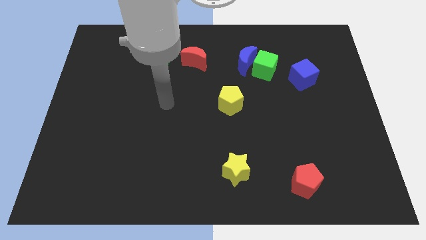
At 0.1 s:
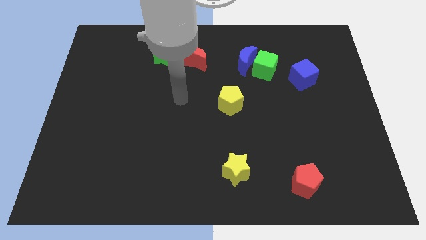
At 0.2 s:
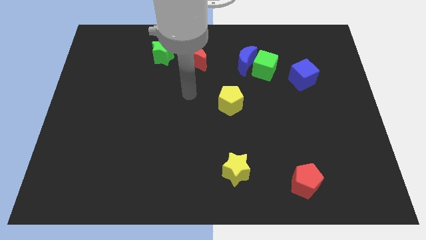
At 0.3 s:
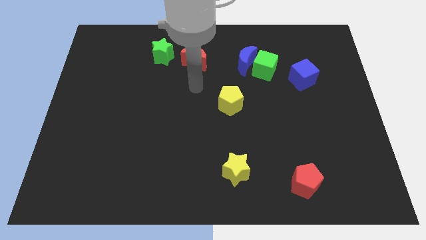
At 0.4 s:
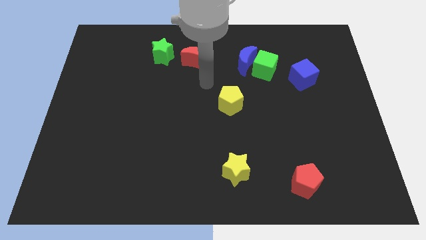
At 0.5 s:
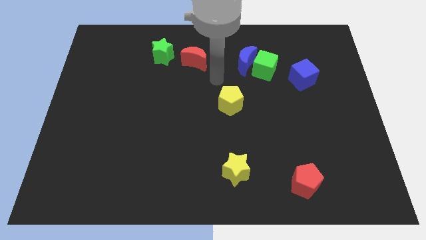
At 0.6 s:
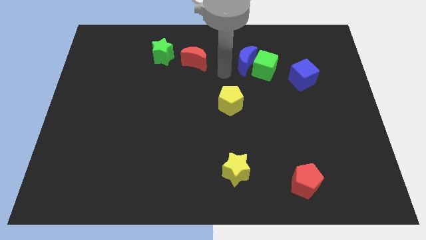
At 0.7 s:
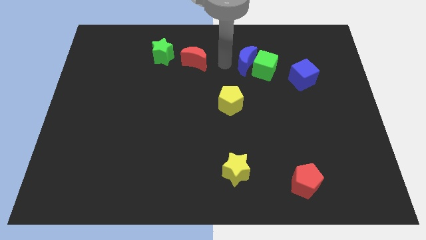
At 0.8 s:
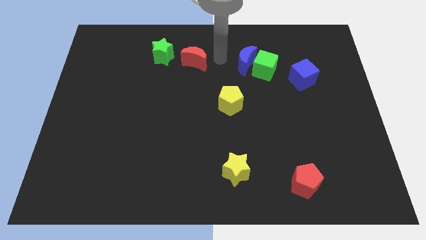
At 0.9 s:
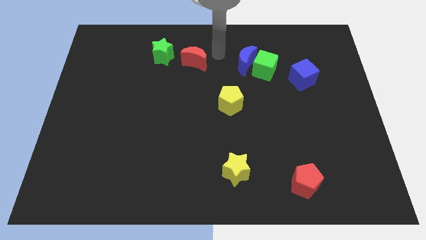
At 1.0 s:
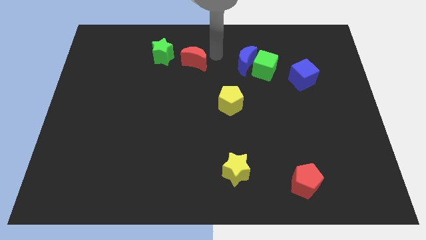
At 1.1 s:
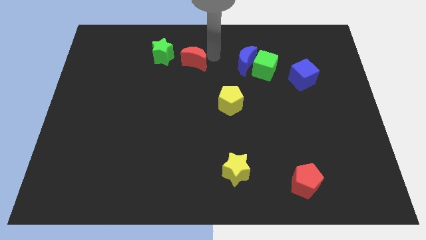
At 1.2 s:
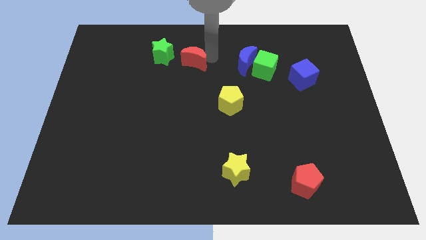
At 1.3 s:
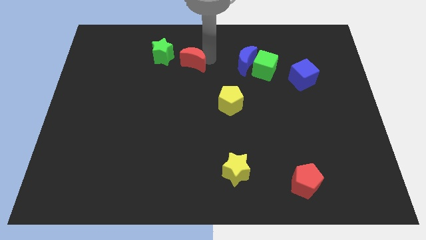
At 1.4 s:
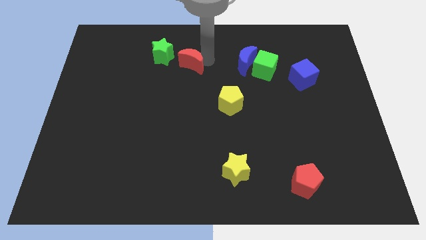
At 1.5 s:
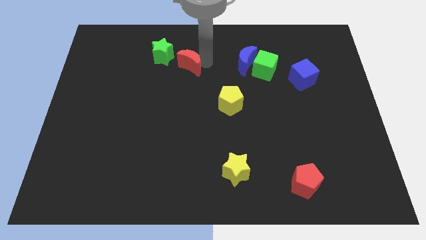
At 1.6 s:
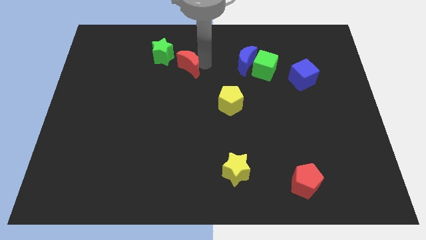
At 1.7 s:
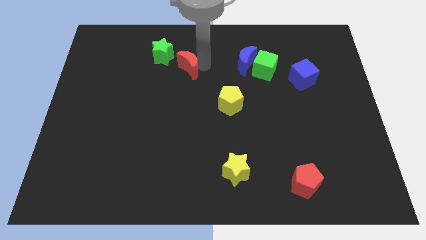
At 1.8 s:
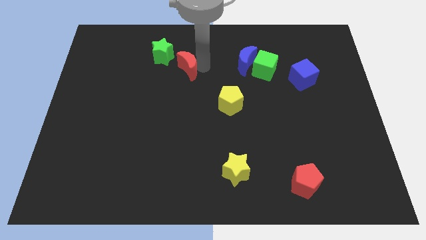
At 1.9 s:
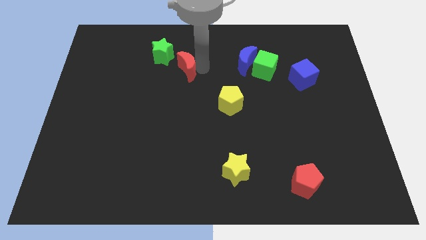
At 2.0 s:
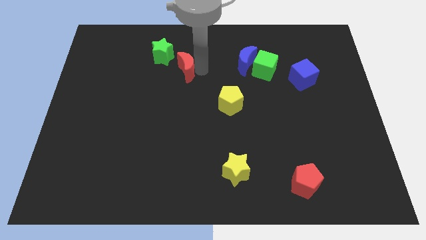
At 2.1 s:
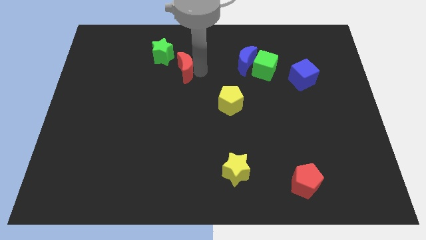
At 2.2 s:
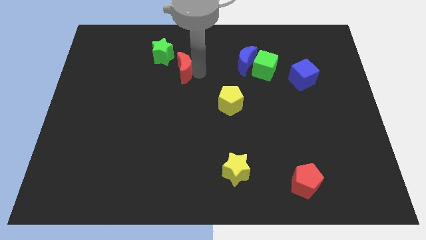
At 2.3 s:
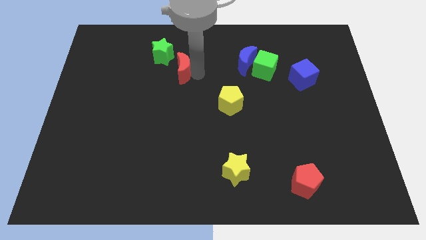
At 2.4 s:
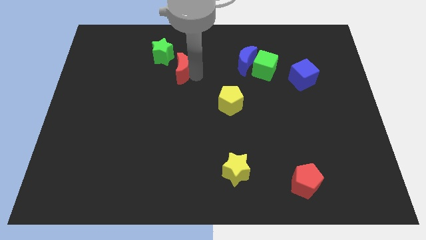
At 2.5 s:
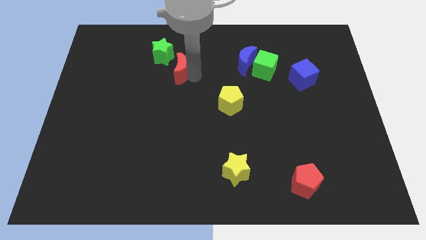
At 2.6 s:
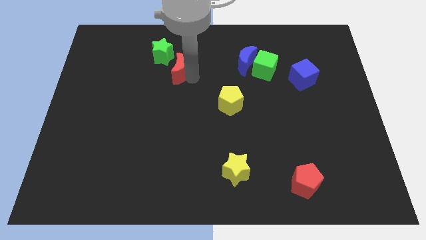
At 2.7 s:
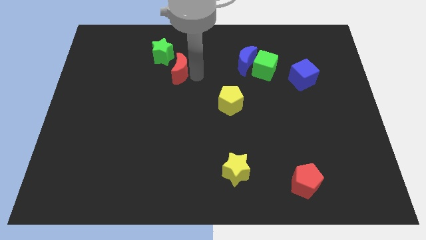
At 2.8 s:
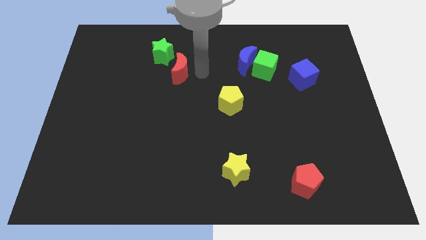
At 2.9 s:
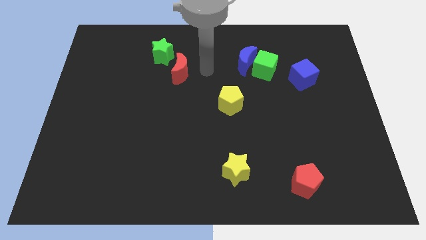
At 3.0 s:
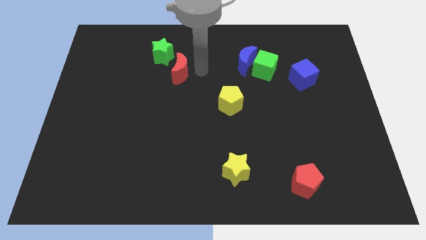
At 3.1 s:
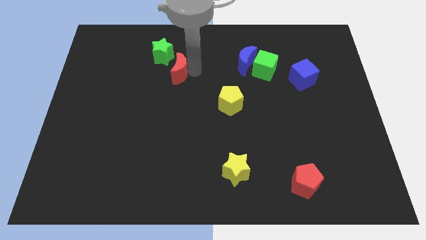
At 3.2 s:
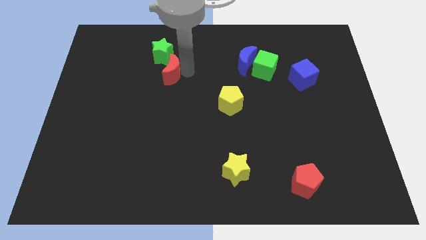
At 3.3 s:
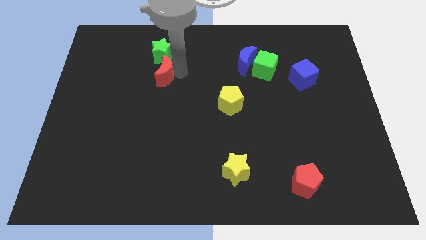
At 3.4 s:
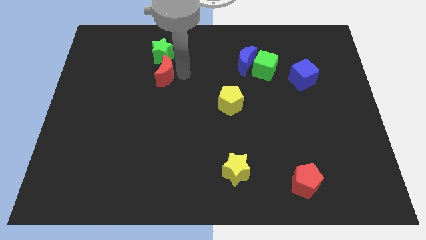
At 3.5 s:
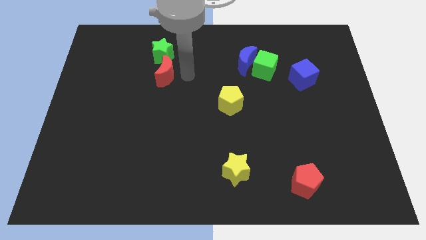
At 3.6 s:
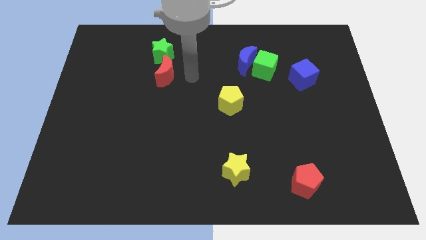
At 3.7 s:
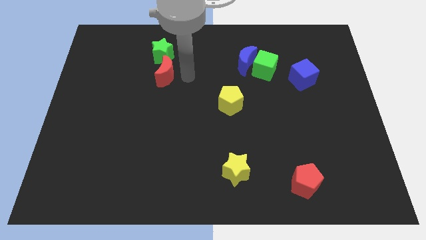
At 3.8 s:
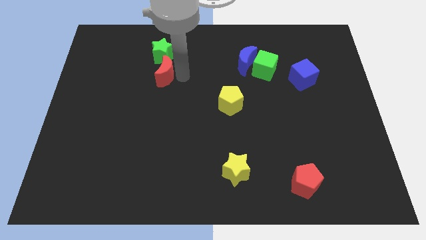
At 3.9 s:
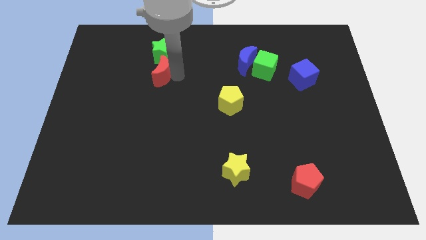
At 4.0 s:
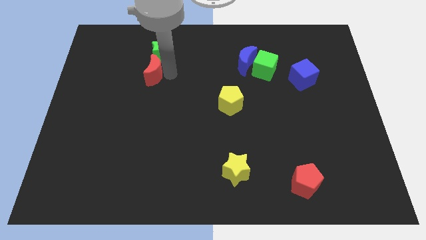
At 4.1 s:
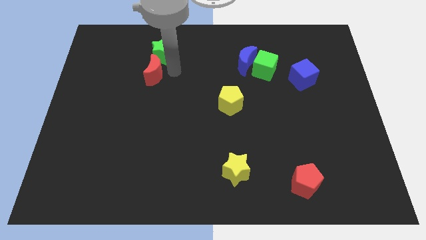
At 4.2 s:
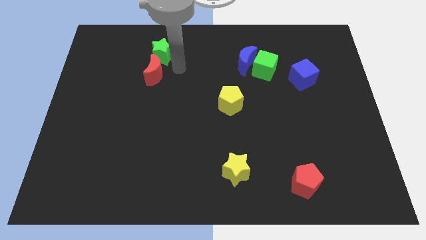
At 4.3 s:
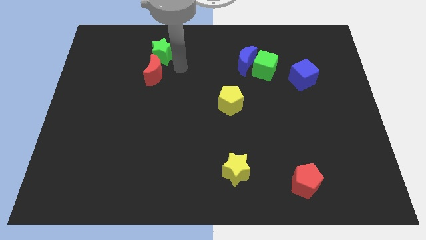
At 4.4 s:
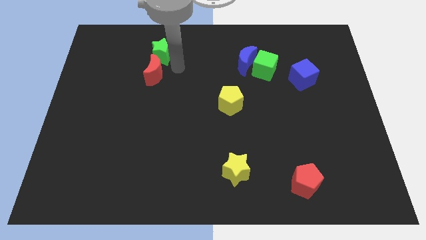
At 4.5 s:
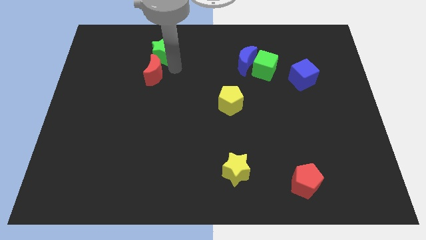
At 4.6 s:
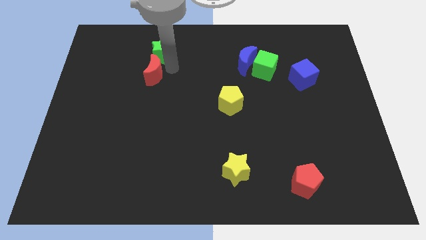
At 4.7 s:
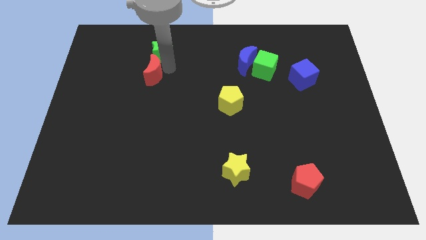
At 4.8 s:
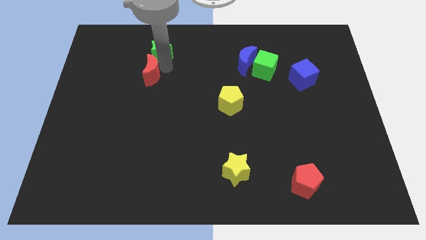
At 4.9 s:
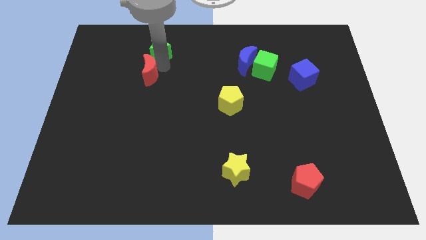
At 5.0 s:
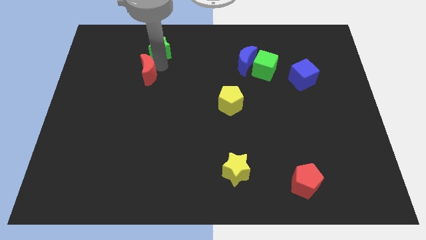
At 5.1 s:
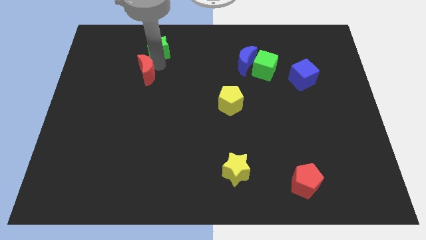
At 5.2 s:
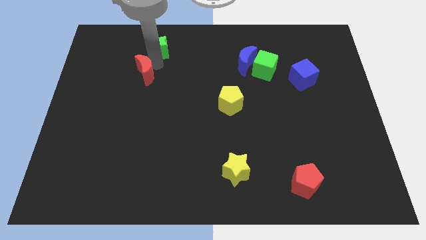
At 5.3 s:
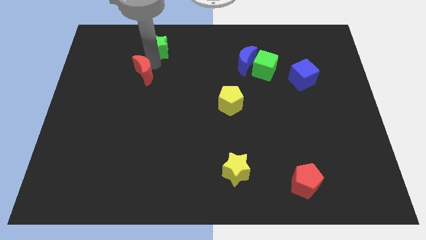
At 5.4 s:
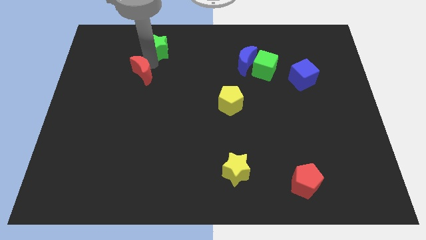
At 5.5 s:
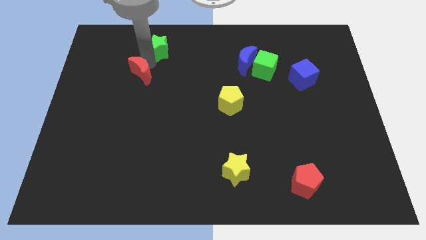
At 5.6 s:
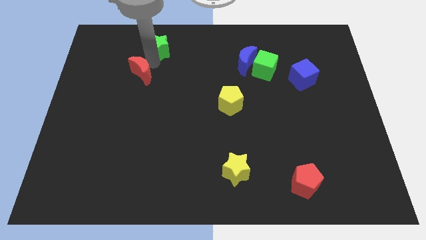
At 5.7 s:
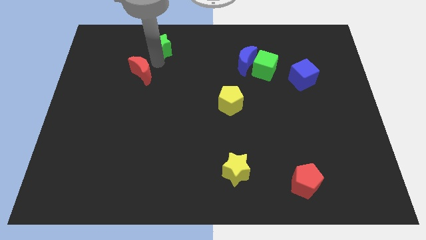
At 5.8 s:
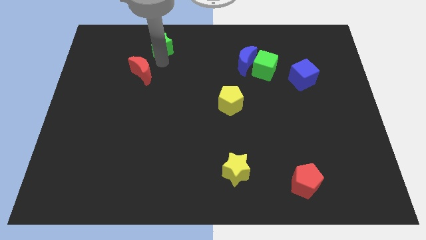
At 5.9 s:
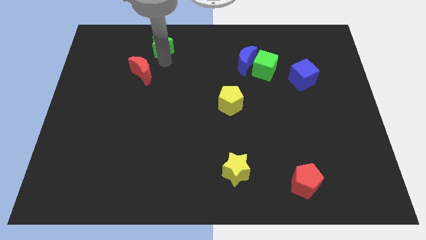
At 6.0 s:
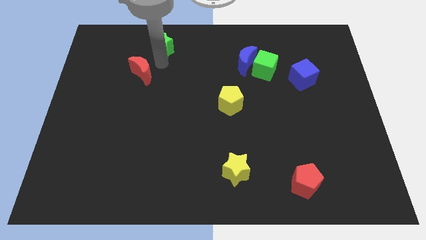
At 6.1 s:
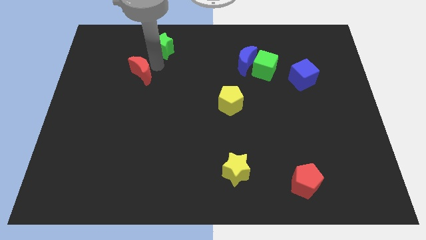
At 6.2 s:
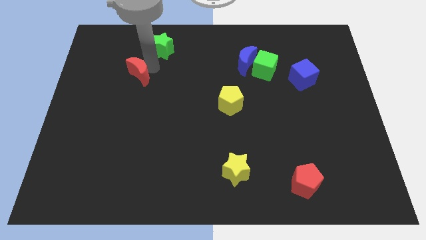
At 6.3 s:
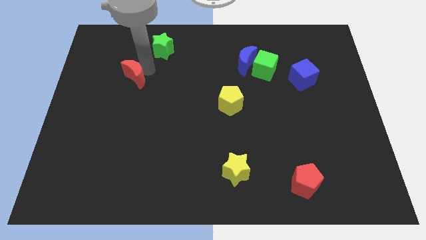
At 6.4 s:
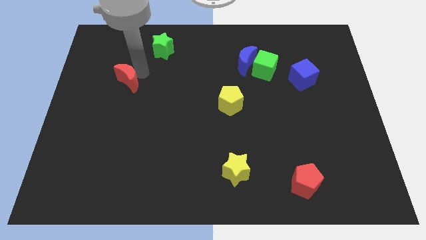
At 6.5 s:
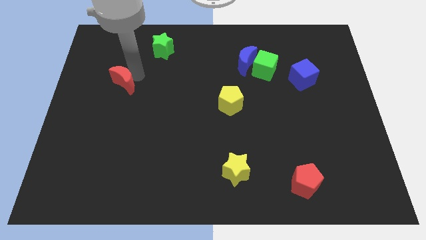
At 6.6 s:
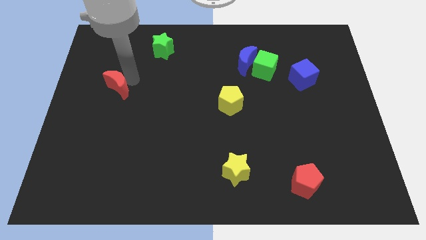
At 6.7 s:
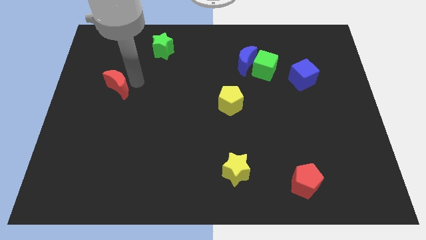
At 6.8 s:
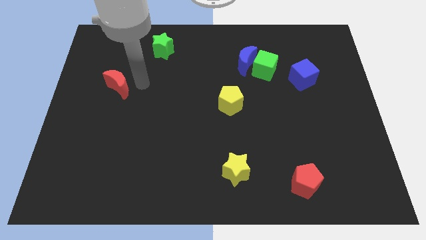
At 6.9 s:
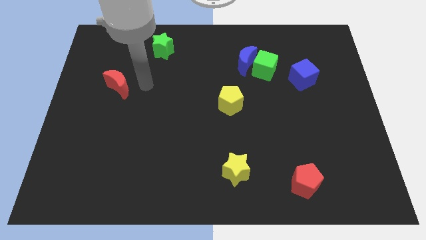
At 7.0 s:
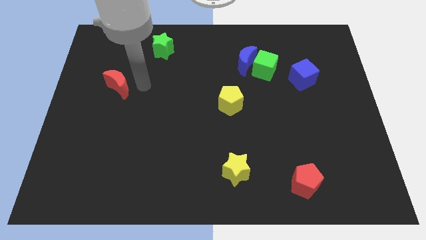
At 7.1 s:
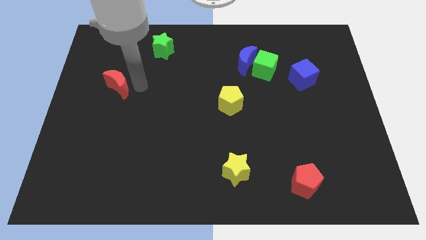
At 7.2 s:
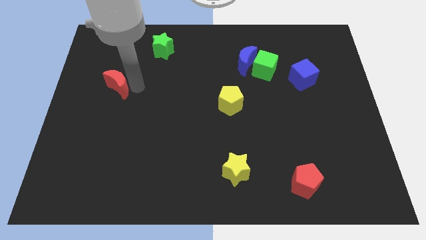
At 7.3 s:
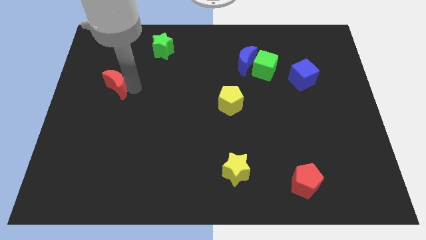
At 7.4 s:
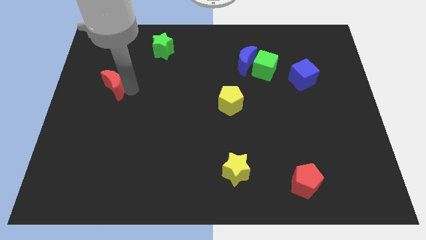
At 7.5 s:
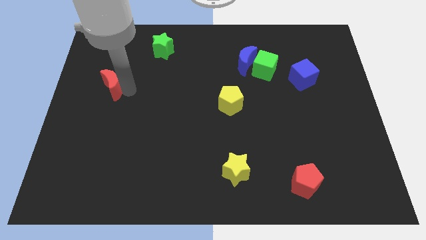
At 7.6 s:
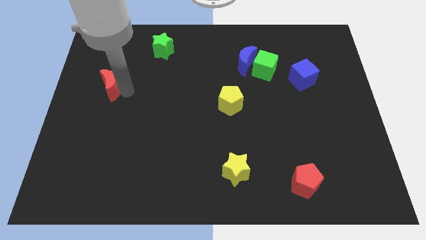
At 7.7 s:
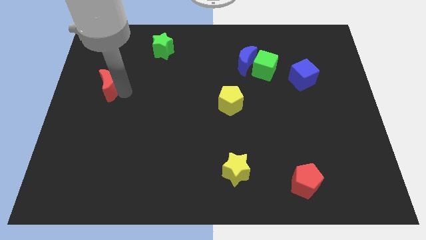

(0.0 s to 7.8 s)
put the red moon to the left side
